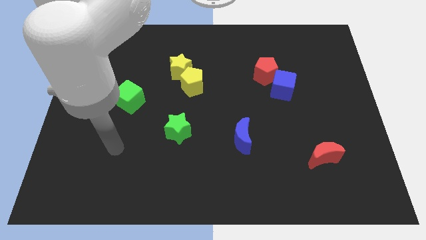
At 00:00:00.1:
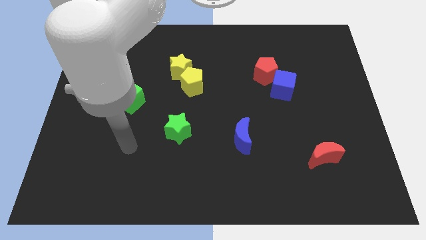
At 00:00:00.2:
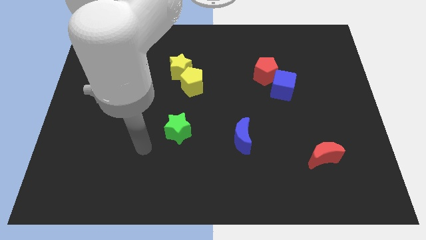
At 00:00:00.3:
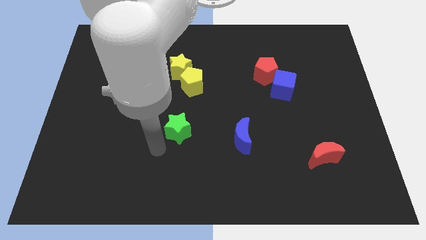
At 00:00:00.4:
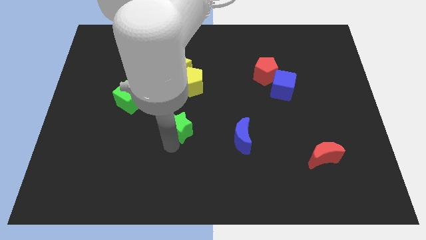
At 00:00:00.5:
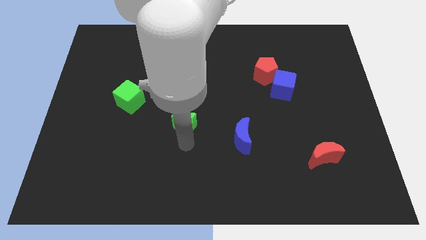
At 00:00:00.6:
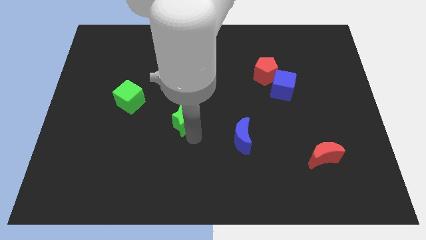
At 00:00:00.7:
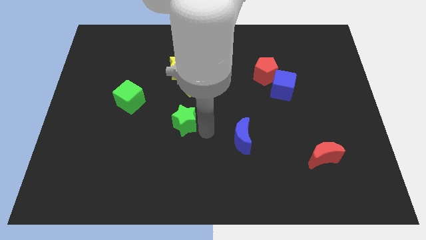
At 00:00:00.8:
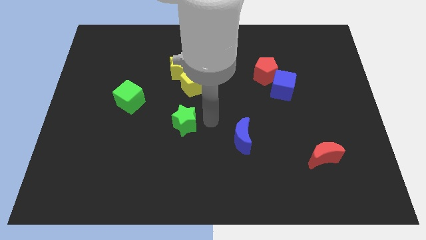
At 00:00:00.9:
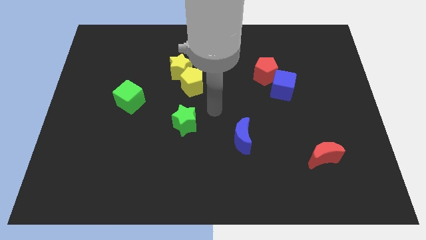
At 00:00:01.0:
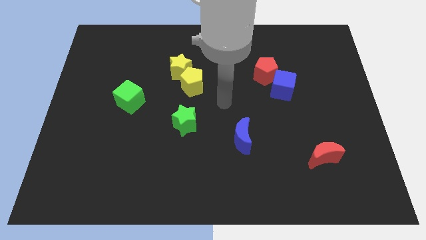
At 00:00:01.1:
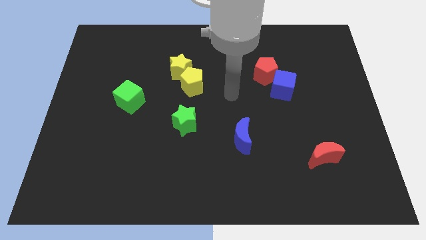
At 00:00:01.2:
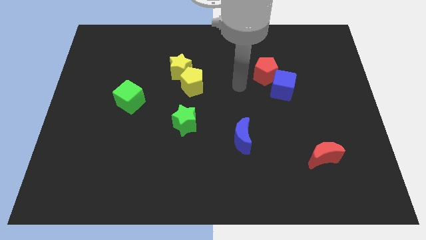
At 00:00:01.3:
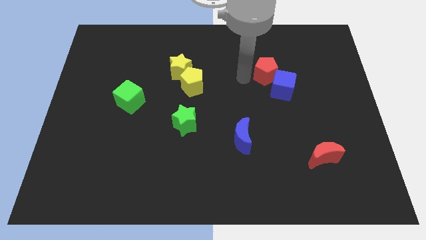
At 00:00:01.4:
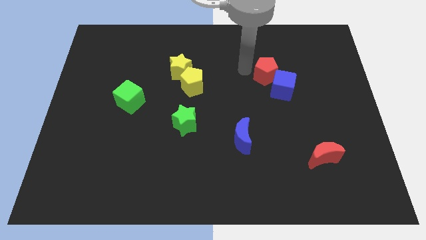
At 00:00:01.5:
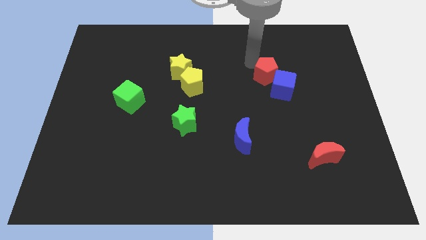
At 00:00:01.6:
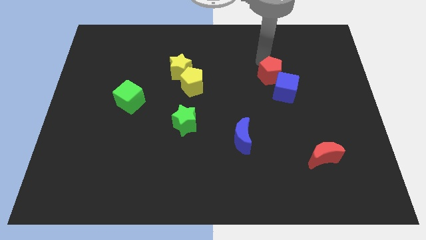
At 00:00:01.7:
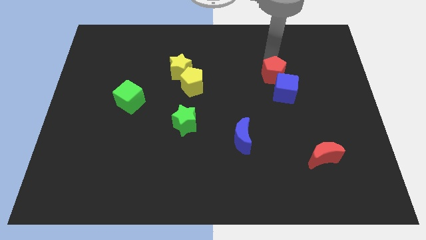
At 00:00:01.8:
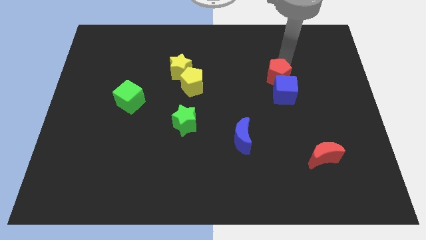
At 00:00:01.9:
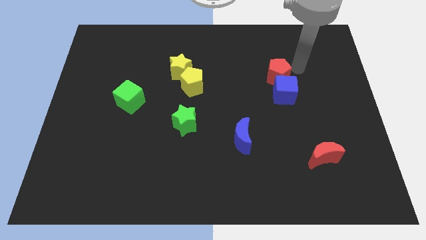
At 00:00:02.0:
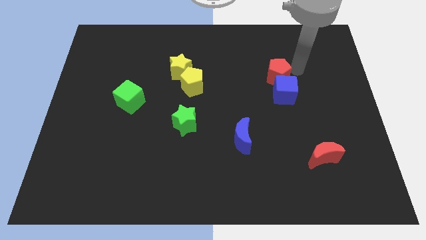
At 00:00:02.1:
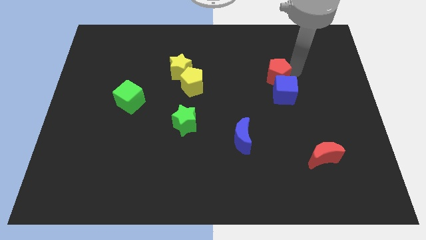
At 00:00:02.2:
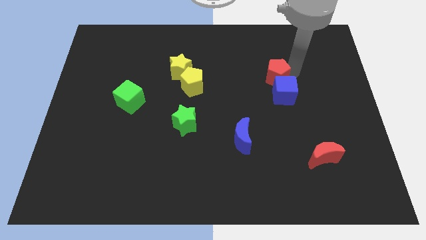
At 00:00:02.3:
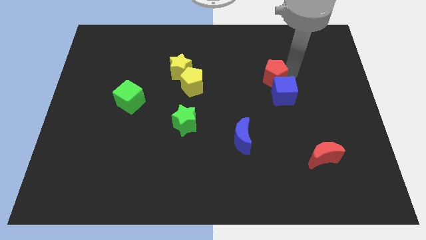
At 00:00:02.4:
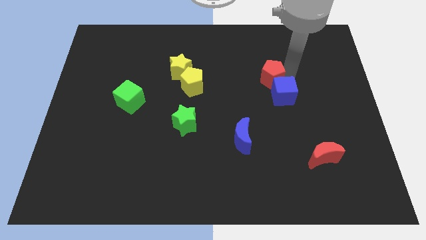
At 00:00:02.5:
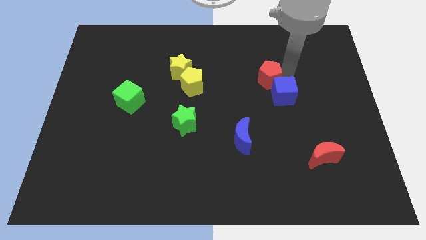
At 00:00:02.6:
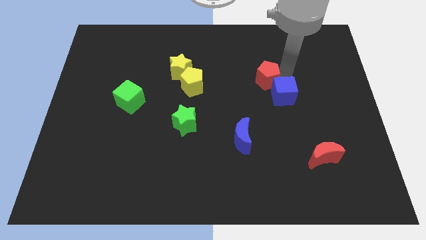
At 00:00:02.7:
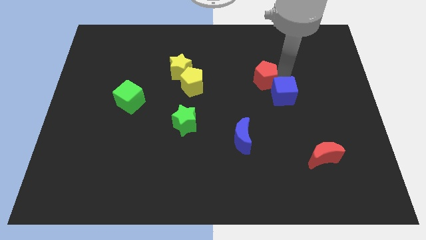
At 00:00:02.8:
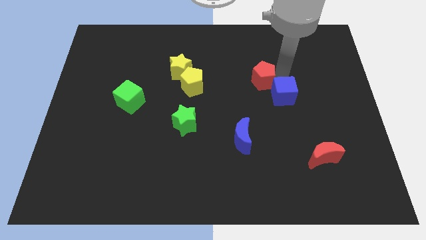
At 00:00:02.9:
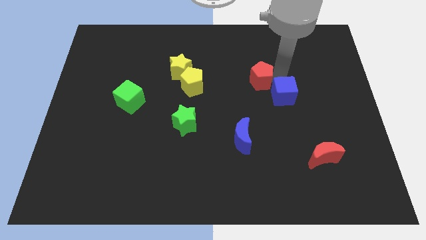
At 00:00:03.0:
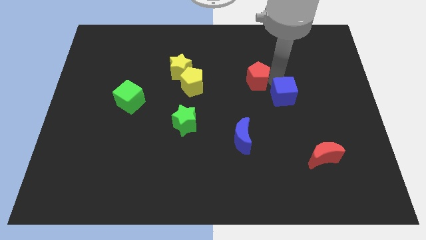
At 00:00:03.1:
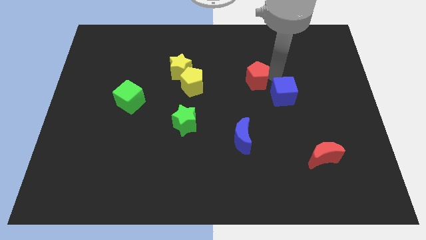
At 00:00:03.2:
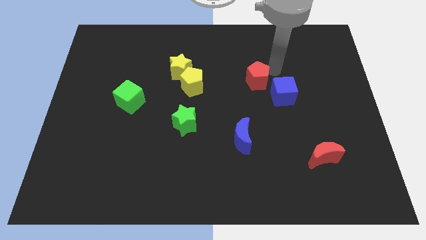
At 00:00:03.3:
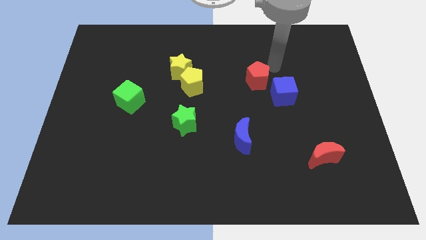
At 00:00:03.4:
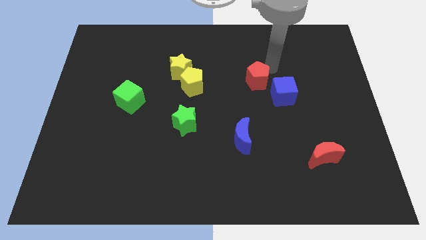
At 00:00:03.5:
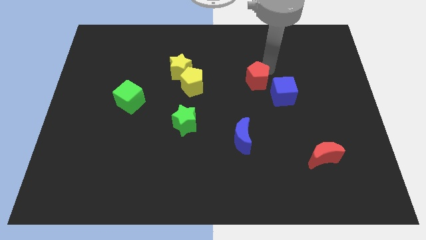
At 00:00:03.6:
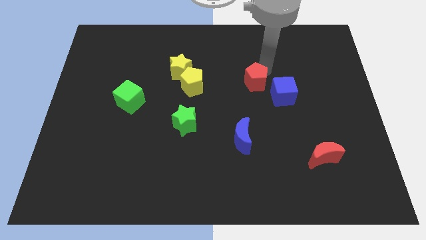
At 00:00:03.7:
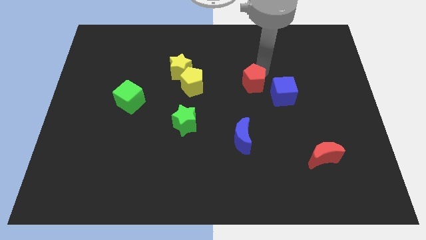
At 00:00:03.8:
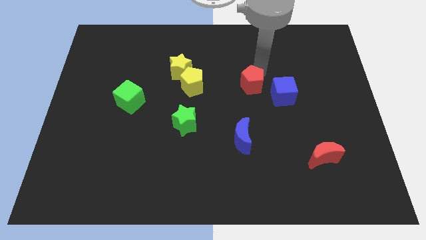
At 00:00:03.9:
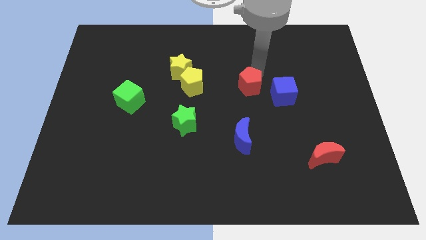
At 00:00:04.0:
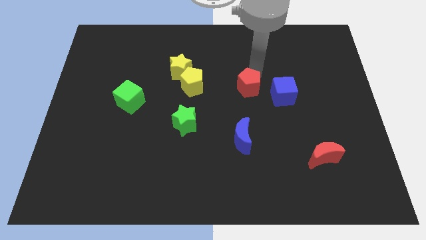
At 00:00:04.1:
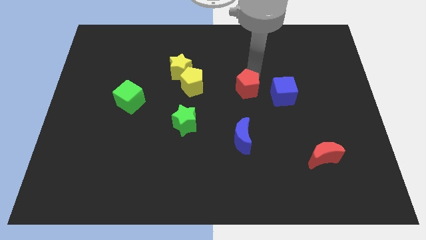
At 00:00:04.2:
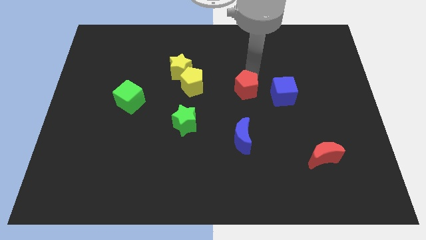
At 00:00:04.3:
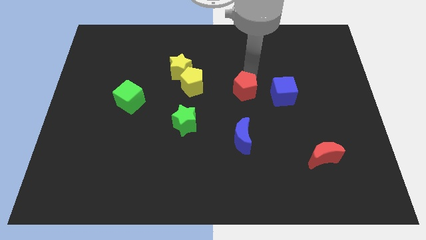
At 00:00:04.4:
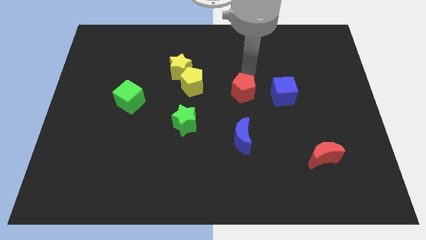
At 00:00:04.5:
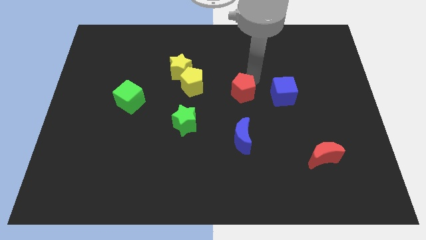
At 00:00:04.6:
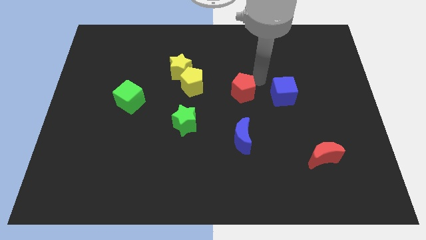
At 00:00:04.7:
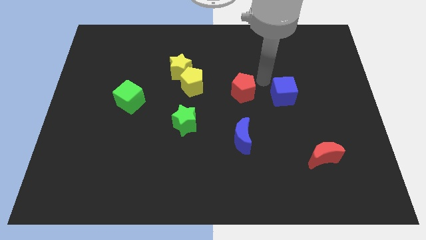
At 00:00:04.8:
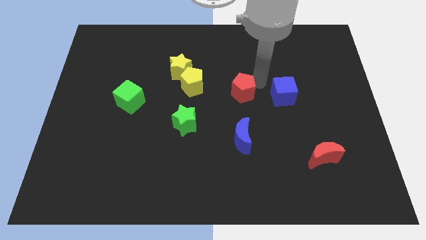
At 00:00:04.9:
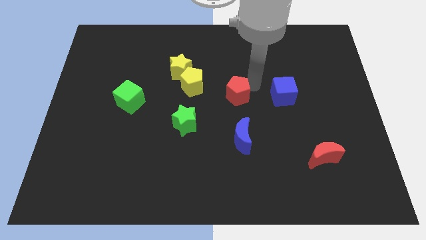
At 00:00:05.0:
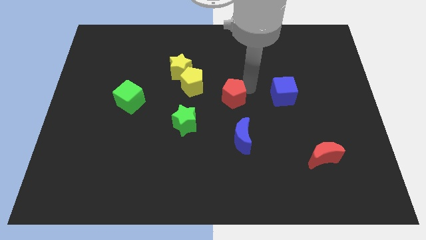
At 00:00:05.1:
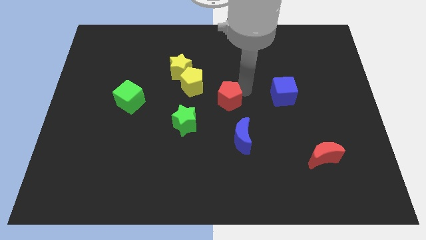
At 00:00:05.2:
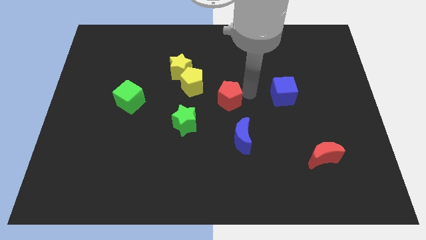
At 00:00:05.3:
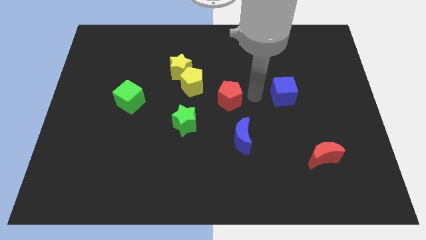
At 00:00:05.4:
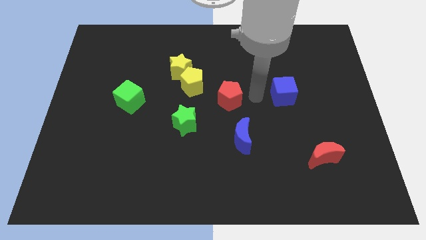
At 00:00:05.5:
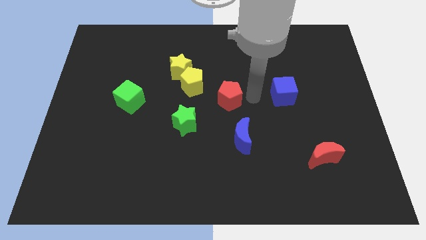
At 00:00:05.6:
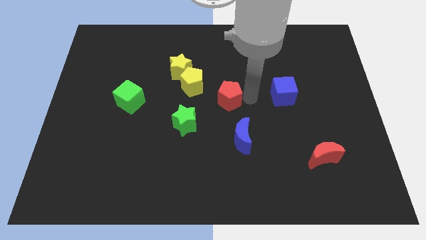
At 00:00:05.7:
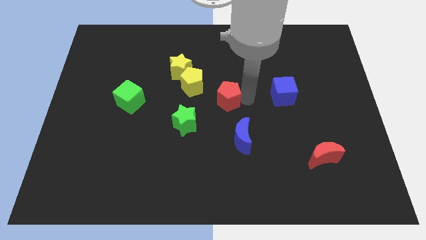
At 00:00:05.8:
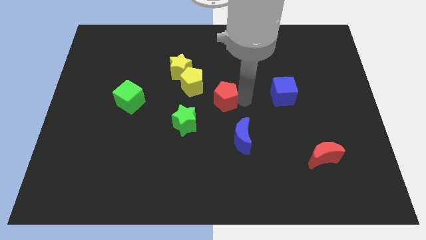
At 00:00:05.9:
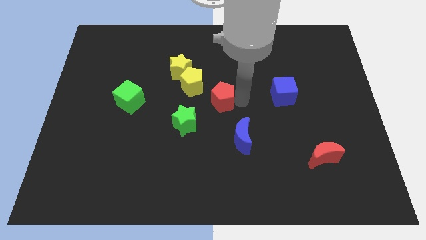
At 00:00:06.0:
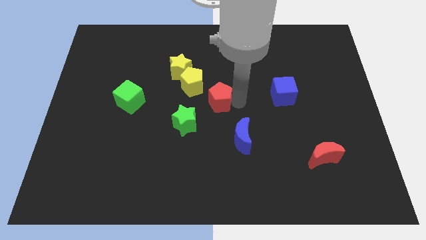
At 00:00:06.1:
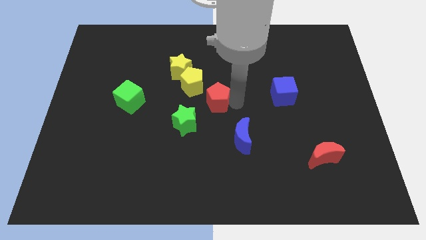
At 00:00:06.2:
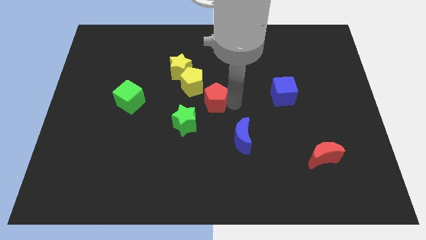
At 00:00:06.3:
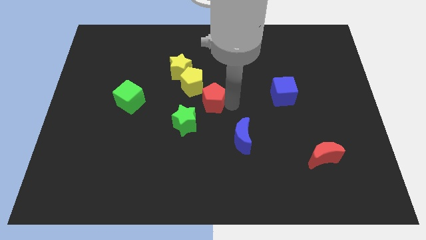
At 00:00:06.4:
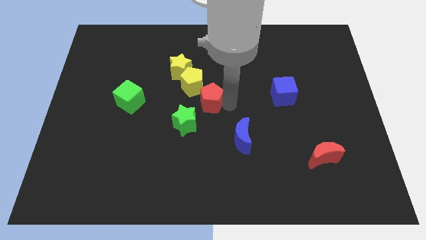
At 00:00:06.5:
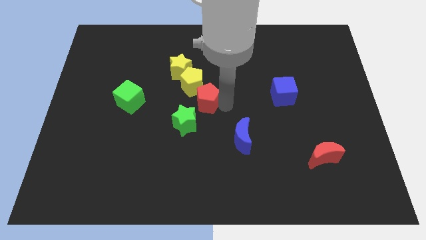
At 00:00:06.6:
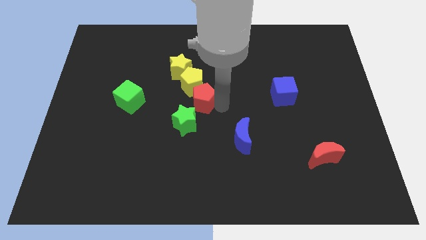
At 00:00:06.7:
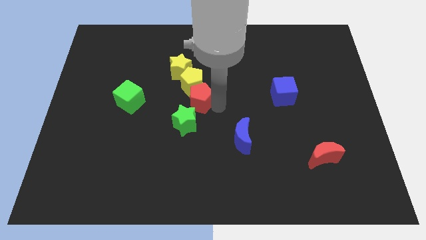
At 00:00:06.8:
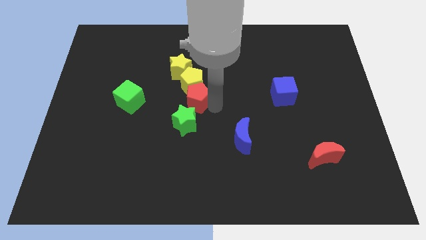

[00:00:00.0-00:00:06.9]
push the red pentagon right of the green cube

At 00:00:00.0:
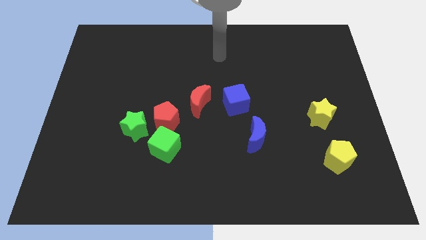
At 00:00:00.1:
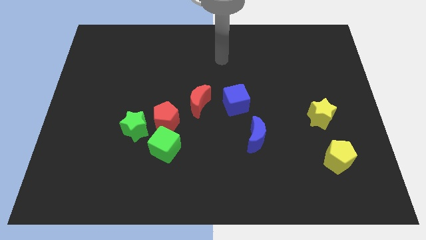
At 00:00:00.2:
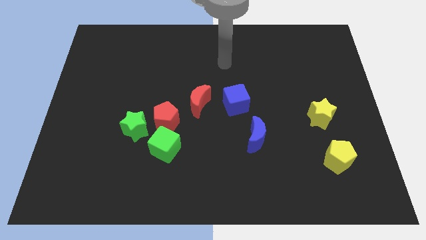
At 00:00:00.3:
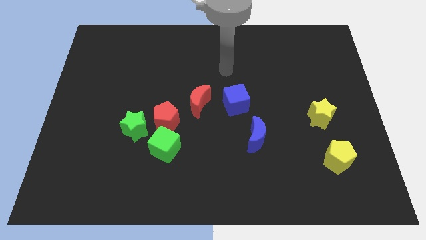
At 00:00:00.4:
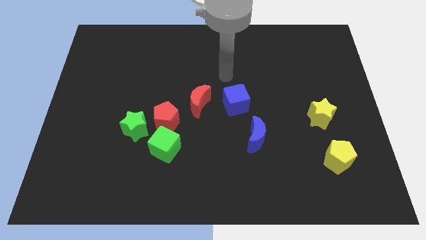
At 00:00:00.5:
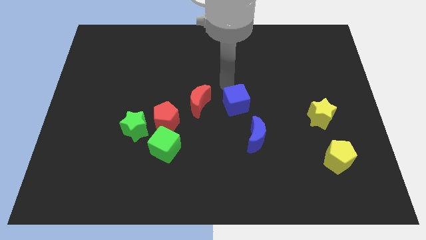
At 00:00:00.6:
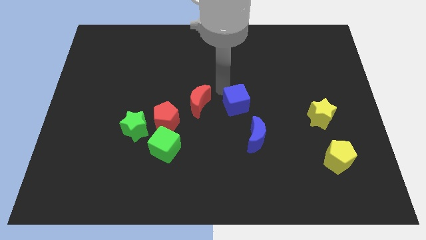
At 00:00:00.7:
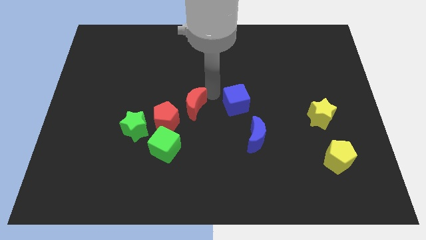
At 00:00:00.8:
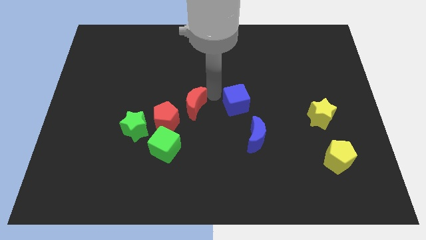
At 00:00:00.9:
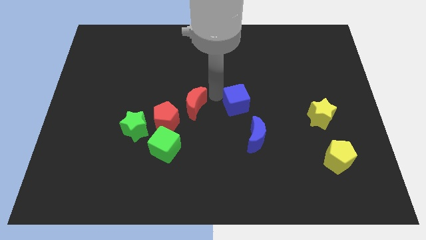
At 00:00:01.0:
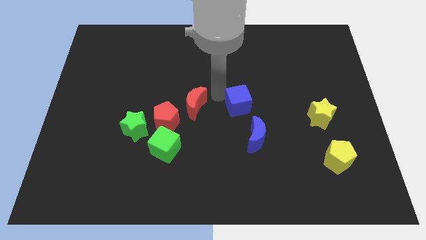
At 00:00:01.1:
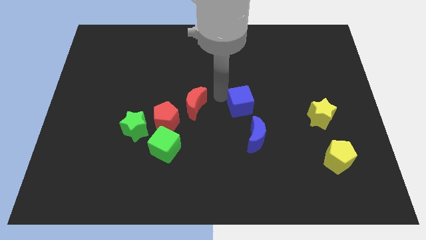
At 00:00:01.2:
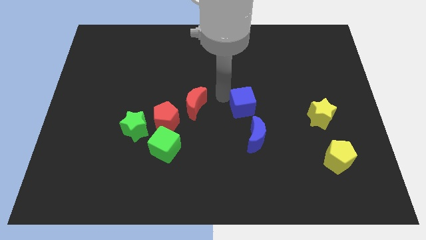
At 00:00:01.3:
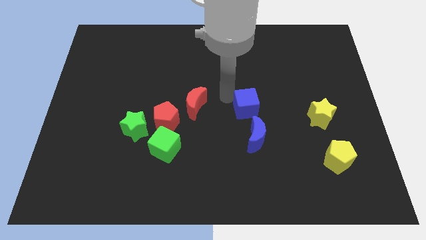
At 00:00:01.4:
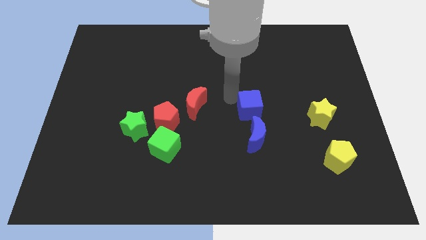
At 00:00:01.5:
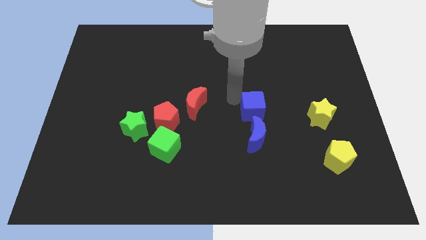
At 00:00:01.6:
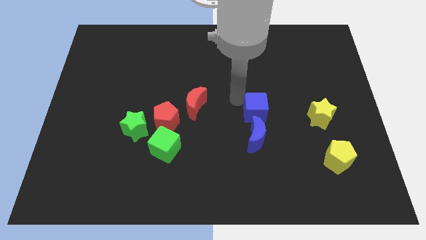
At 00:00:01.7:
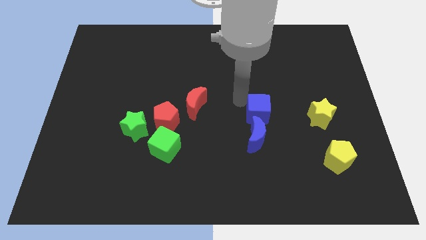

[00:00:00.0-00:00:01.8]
put the blue cube diagonally up and to the right of the blue moon
